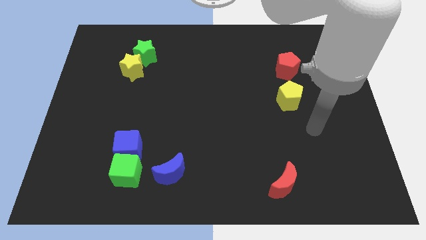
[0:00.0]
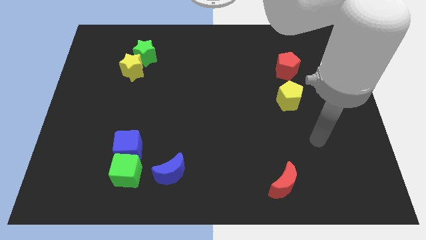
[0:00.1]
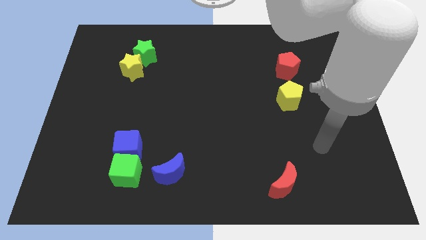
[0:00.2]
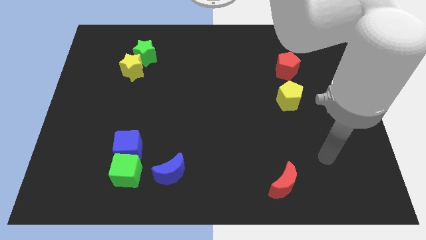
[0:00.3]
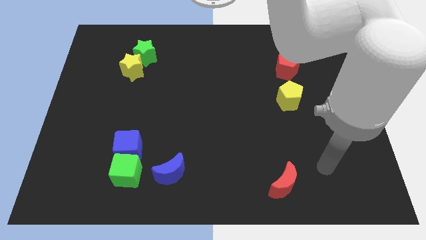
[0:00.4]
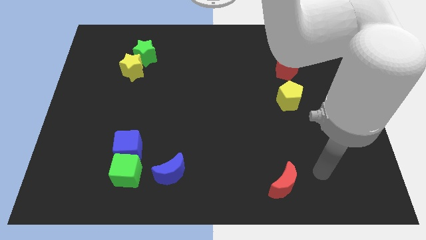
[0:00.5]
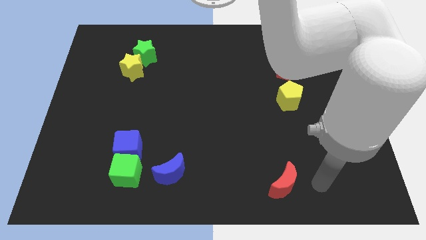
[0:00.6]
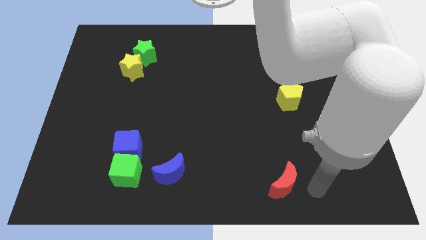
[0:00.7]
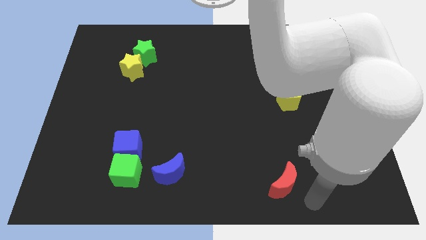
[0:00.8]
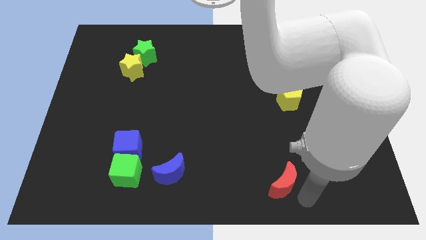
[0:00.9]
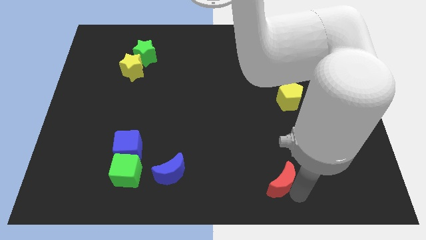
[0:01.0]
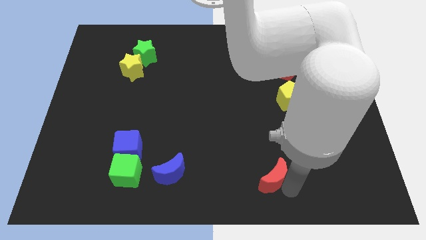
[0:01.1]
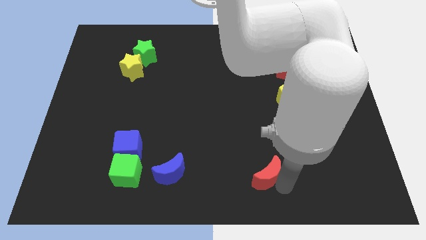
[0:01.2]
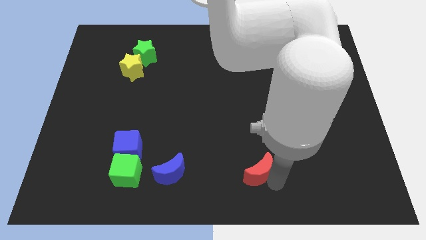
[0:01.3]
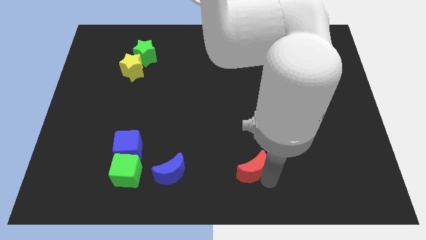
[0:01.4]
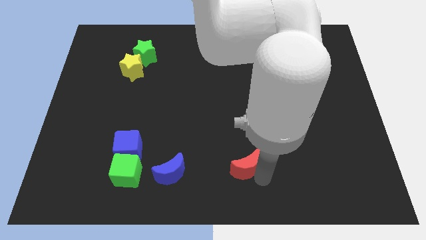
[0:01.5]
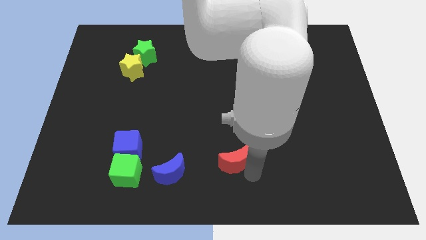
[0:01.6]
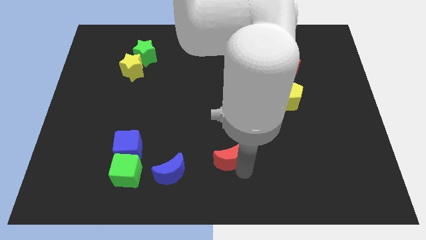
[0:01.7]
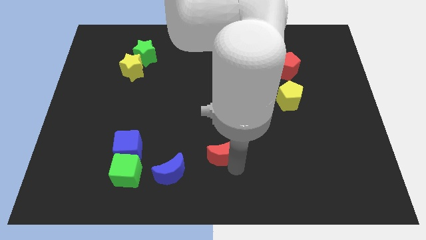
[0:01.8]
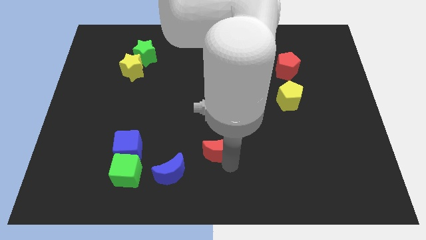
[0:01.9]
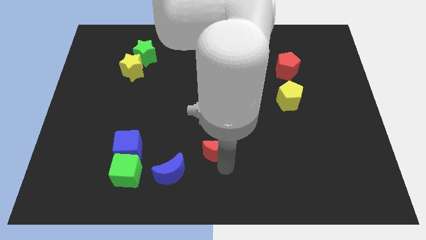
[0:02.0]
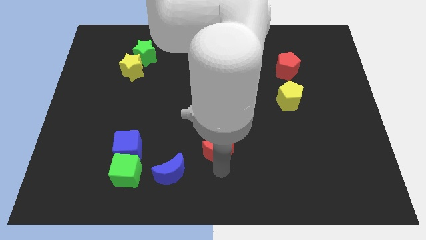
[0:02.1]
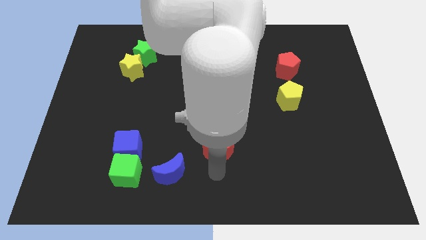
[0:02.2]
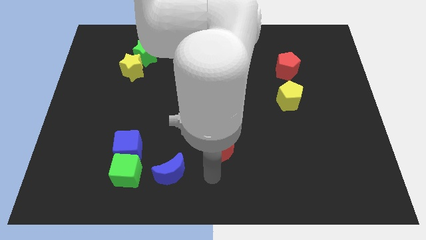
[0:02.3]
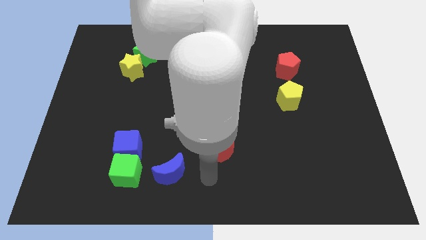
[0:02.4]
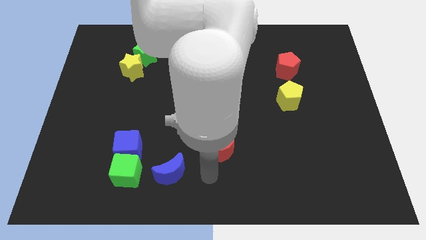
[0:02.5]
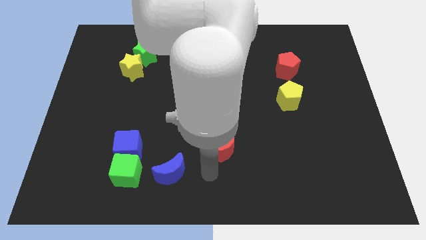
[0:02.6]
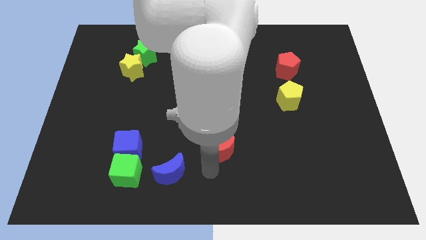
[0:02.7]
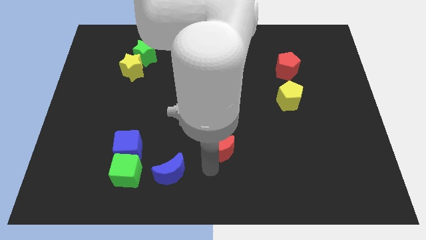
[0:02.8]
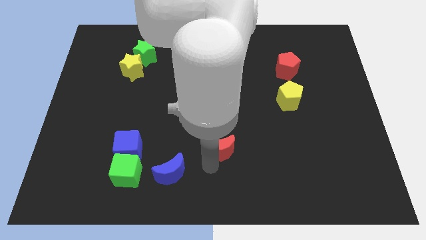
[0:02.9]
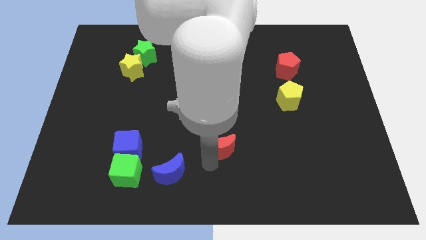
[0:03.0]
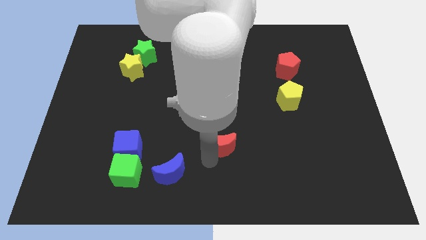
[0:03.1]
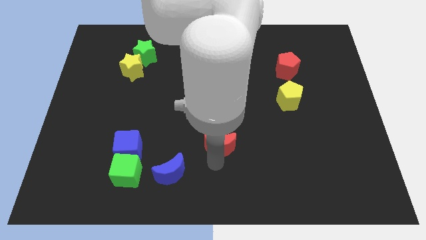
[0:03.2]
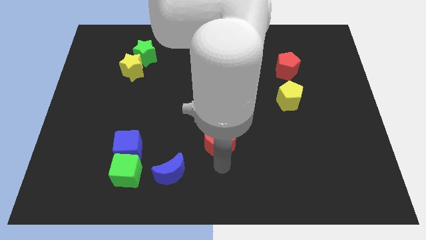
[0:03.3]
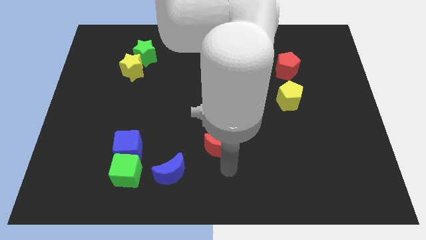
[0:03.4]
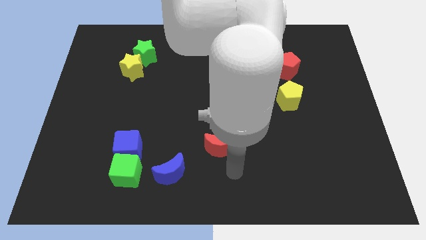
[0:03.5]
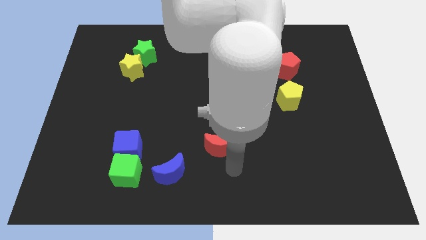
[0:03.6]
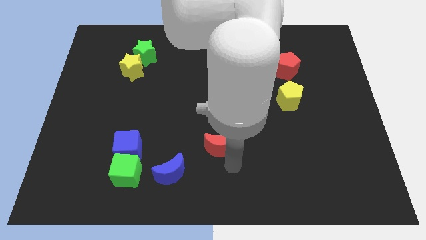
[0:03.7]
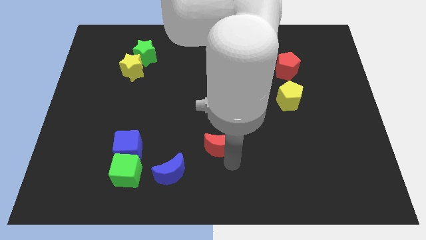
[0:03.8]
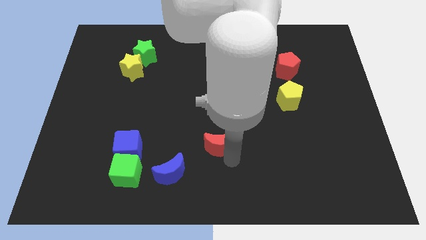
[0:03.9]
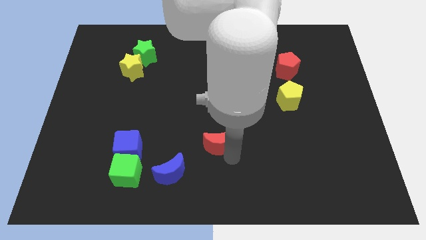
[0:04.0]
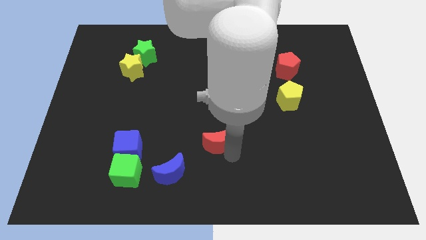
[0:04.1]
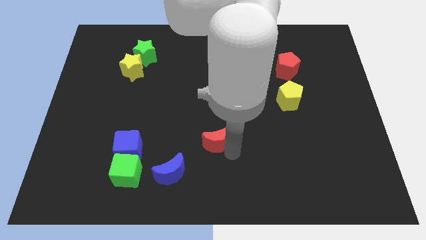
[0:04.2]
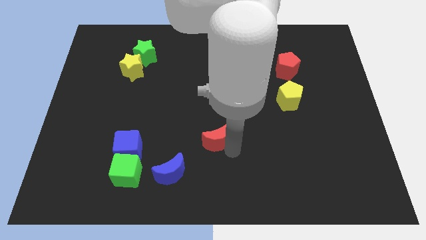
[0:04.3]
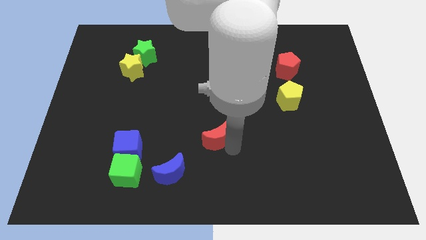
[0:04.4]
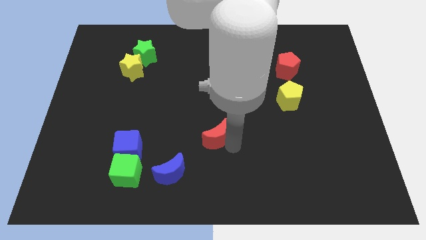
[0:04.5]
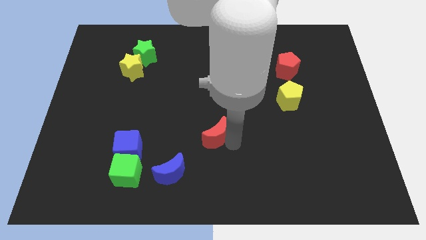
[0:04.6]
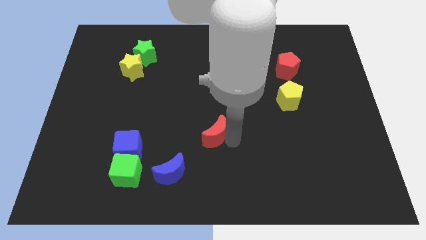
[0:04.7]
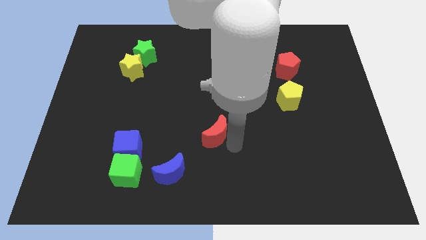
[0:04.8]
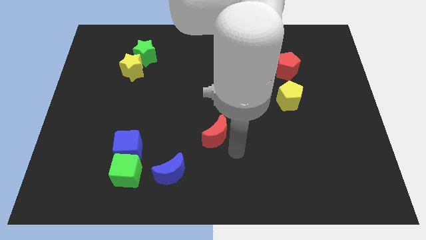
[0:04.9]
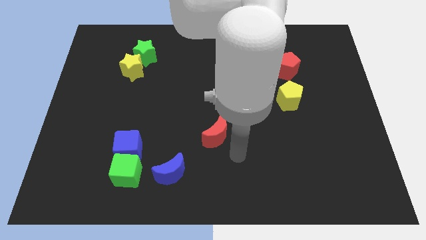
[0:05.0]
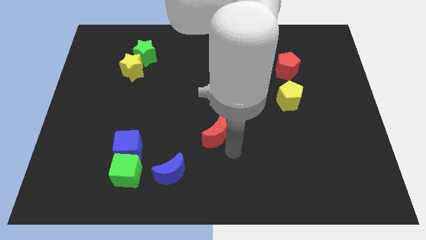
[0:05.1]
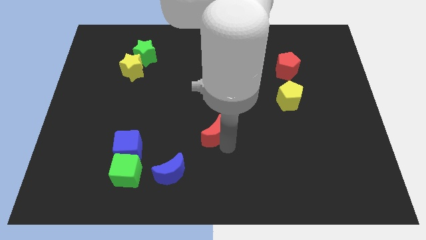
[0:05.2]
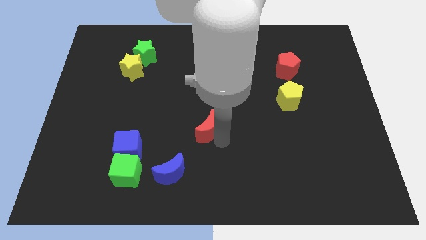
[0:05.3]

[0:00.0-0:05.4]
move the red moon upwards and then left

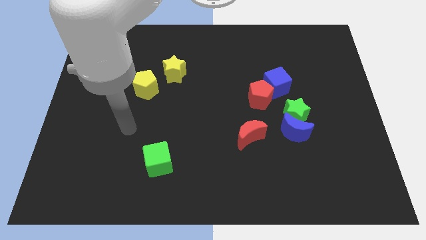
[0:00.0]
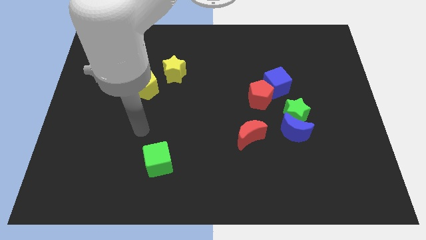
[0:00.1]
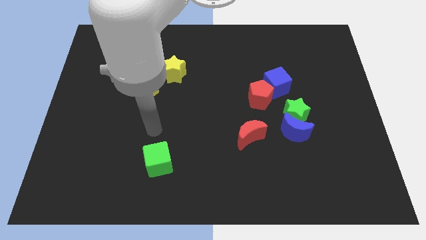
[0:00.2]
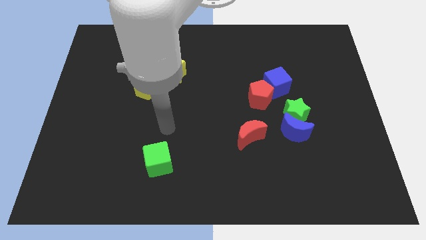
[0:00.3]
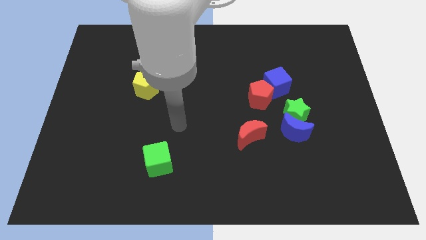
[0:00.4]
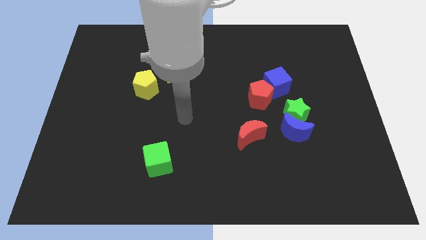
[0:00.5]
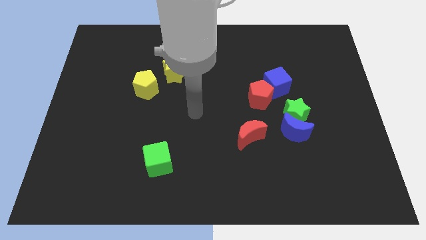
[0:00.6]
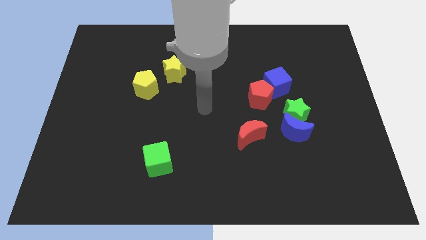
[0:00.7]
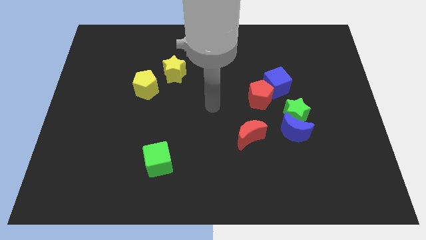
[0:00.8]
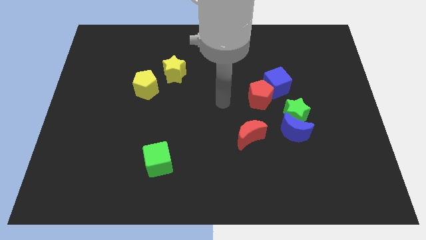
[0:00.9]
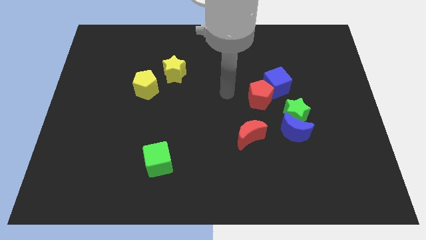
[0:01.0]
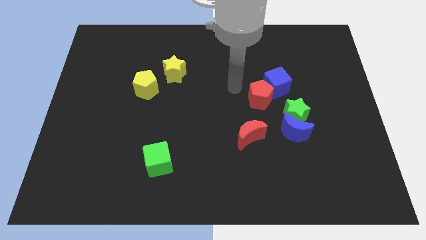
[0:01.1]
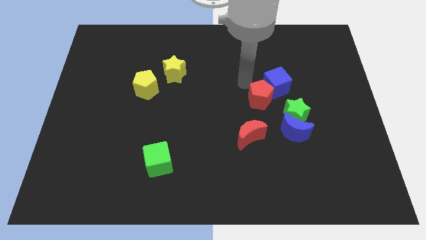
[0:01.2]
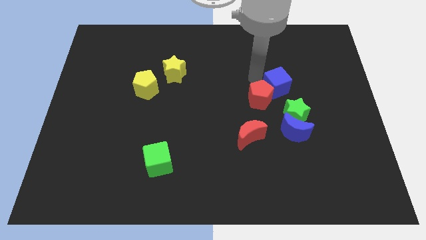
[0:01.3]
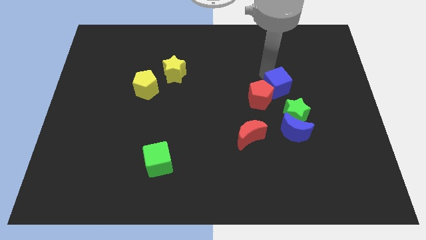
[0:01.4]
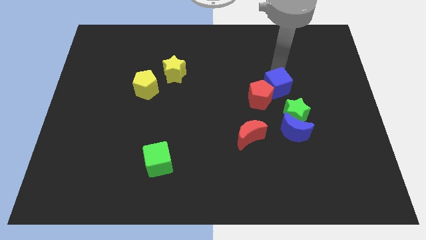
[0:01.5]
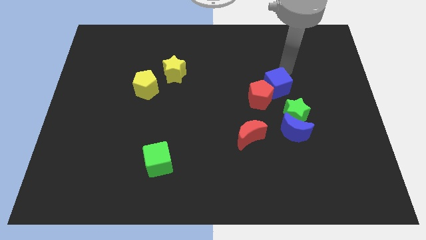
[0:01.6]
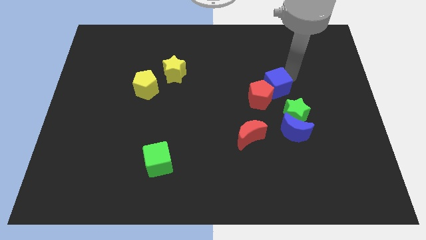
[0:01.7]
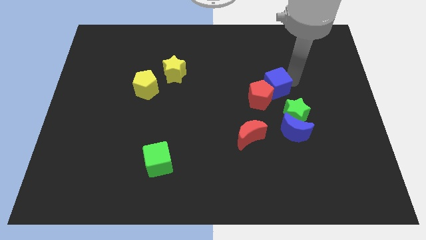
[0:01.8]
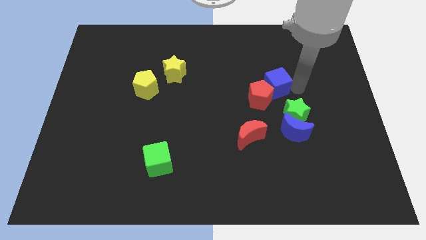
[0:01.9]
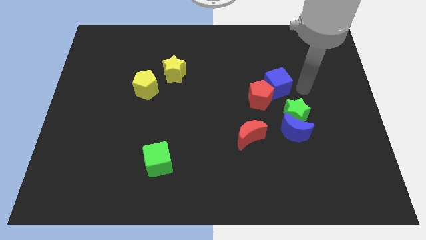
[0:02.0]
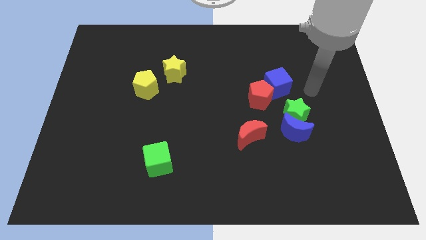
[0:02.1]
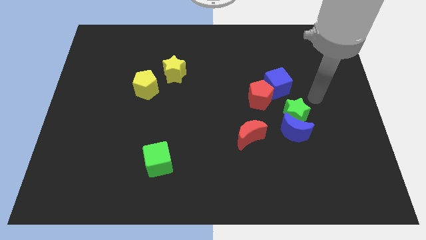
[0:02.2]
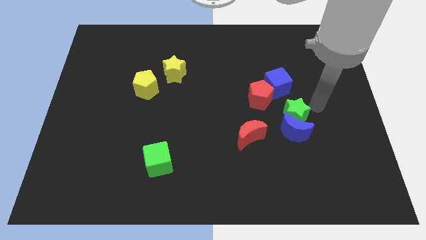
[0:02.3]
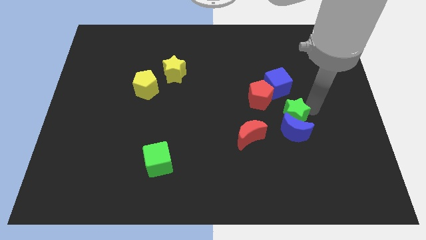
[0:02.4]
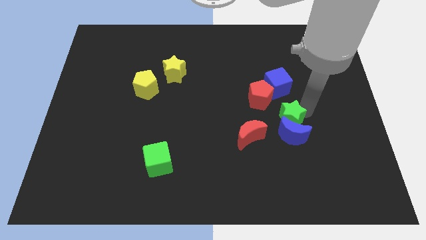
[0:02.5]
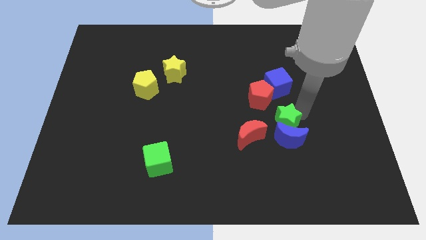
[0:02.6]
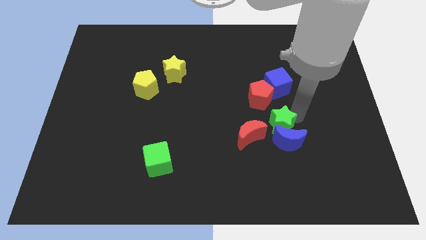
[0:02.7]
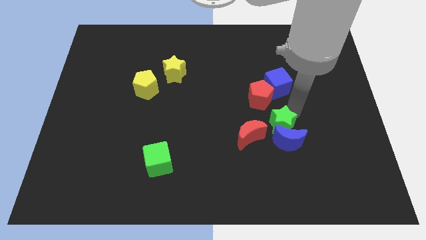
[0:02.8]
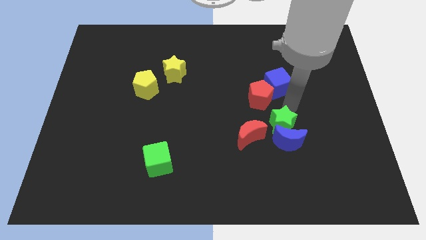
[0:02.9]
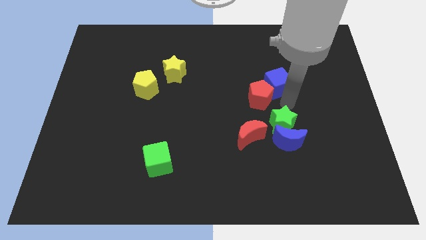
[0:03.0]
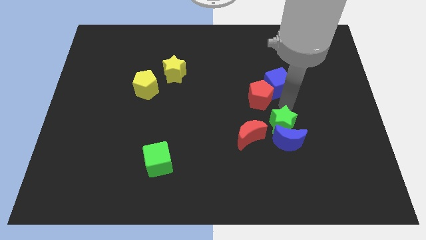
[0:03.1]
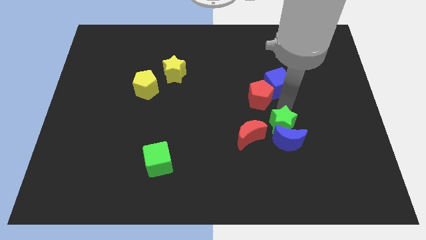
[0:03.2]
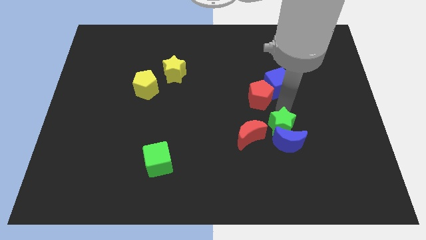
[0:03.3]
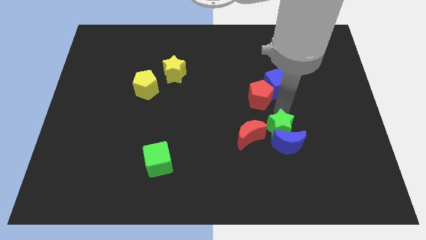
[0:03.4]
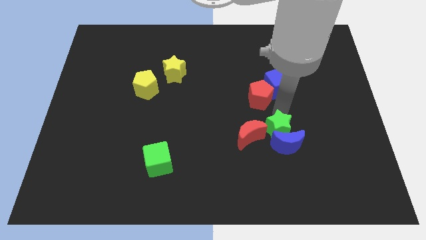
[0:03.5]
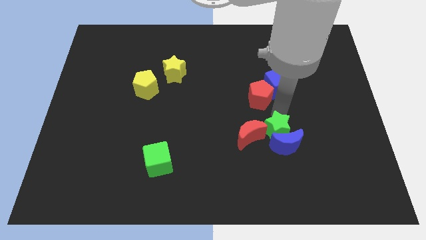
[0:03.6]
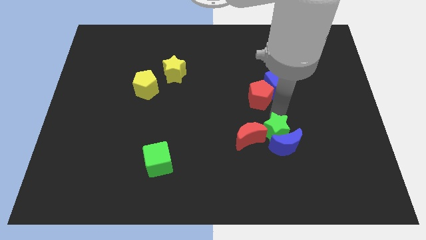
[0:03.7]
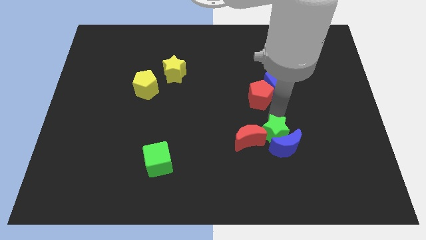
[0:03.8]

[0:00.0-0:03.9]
slightly slide the green star downwards and to the left
